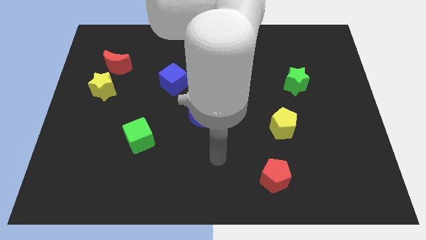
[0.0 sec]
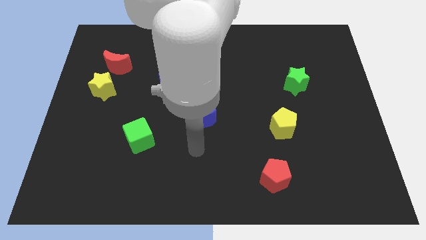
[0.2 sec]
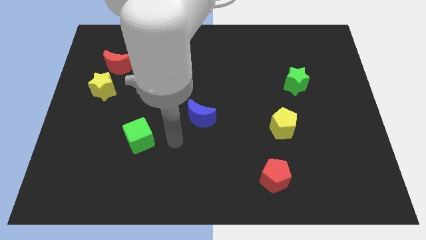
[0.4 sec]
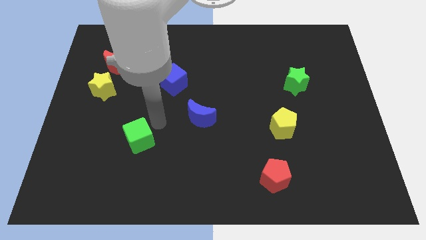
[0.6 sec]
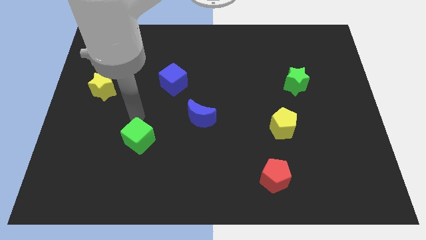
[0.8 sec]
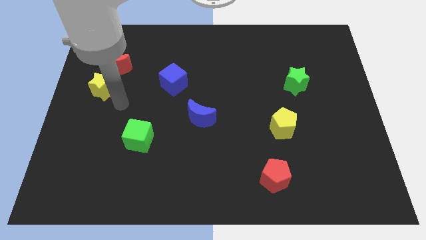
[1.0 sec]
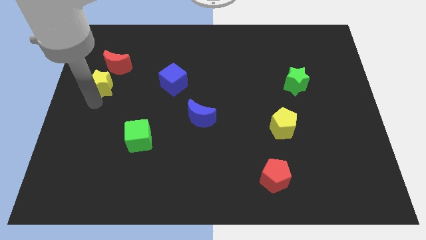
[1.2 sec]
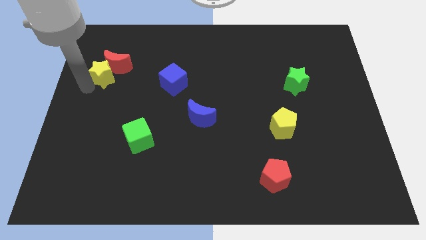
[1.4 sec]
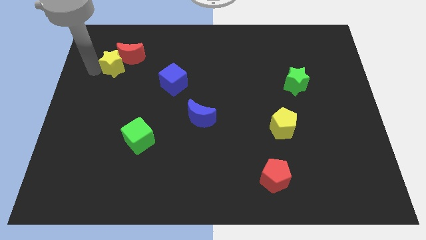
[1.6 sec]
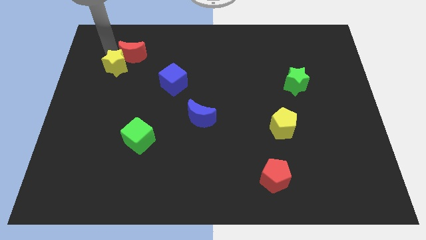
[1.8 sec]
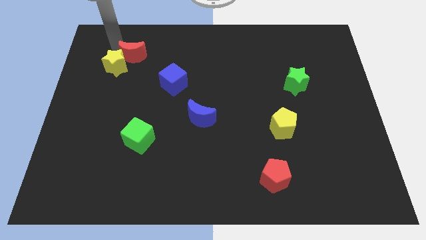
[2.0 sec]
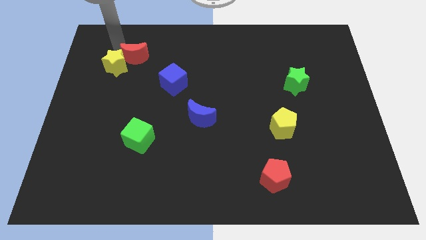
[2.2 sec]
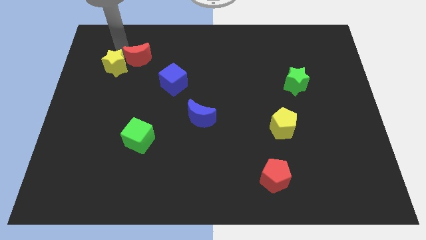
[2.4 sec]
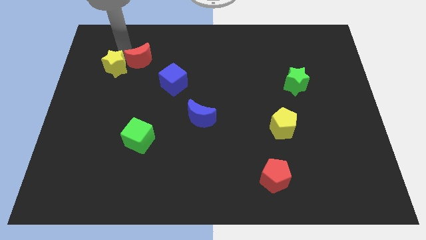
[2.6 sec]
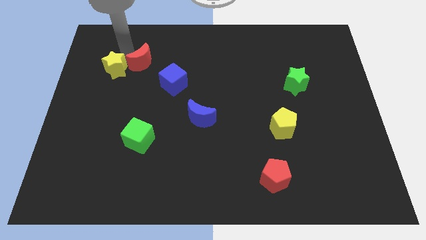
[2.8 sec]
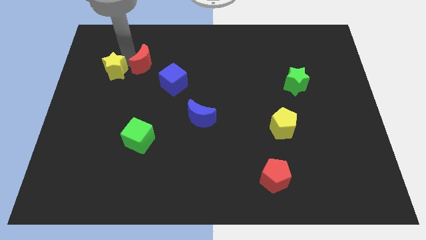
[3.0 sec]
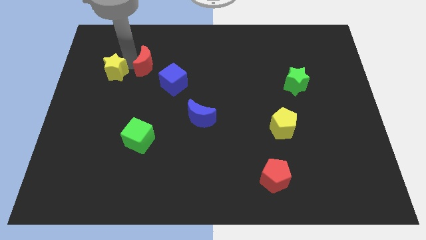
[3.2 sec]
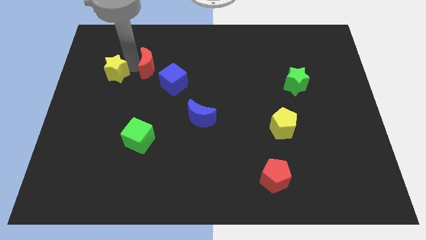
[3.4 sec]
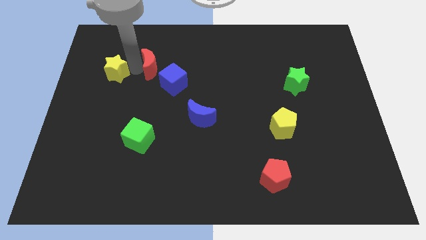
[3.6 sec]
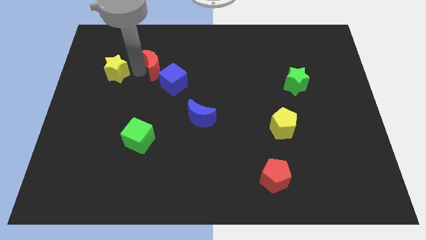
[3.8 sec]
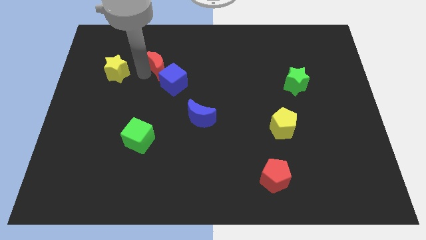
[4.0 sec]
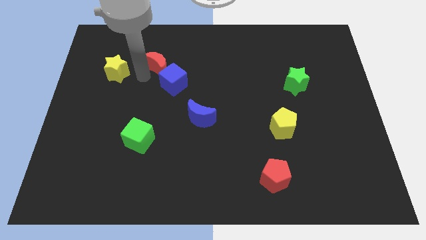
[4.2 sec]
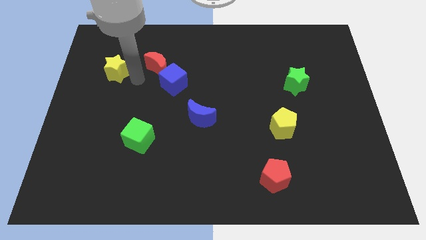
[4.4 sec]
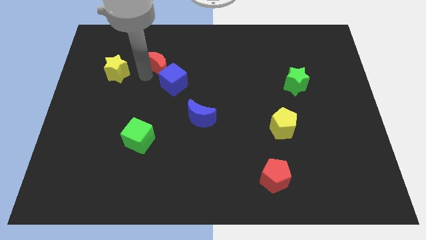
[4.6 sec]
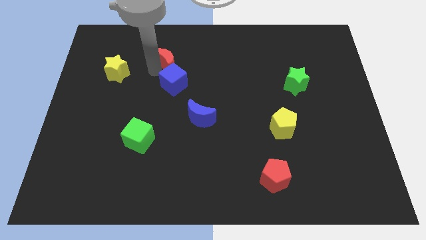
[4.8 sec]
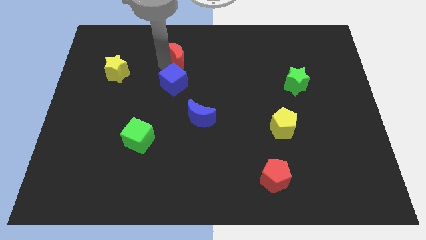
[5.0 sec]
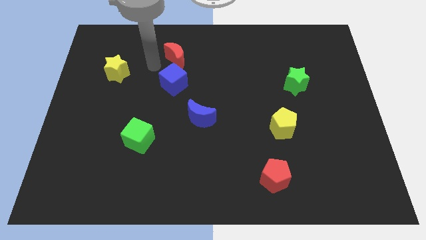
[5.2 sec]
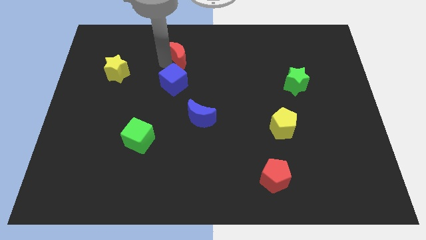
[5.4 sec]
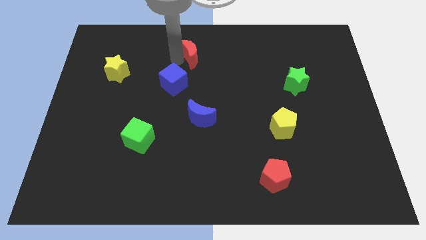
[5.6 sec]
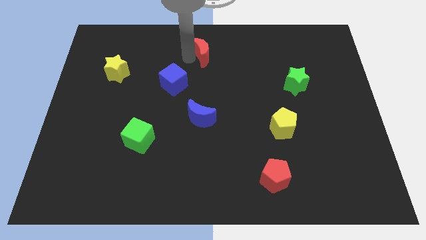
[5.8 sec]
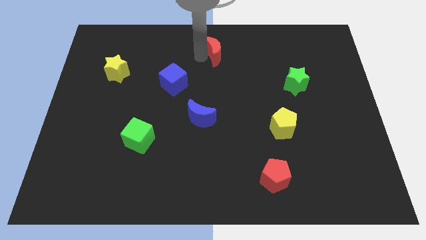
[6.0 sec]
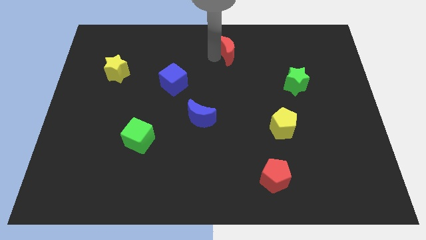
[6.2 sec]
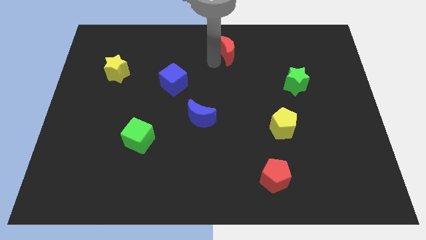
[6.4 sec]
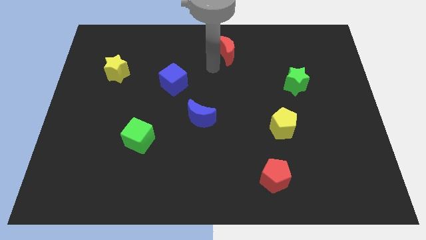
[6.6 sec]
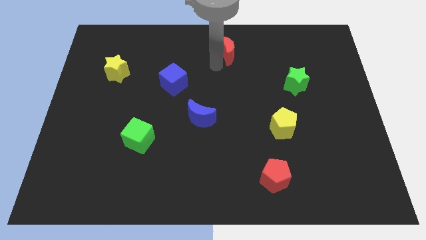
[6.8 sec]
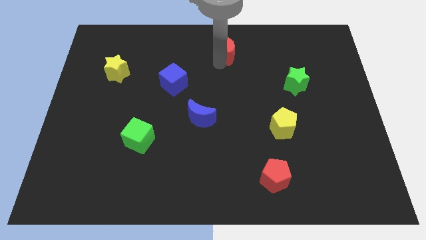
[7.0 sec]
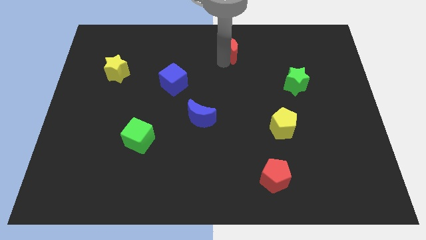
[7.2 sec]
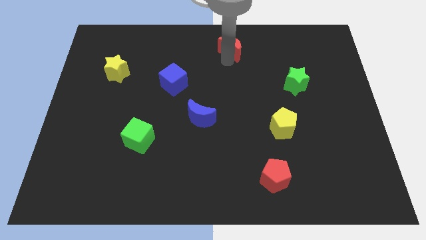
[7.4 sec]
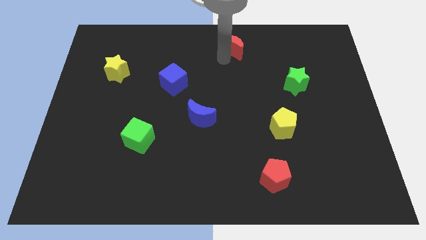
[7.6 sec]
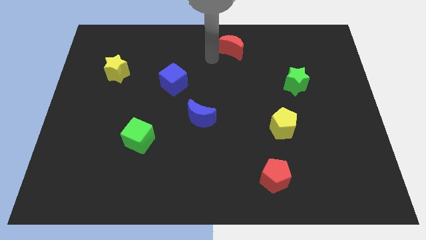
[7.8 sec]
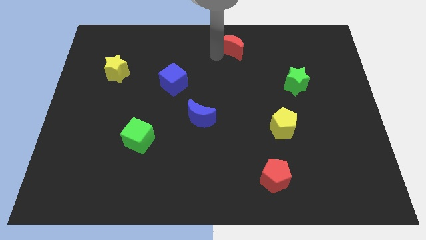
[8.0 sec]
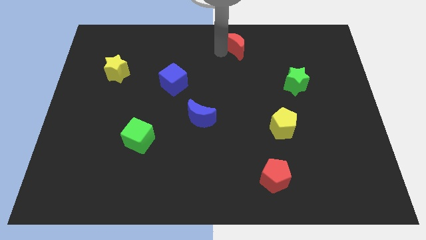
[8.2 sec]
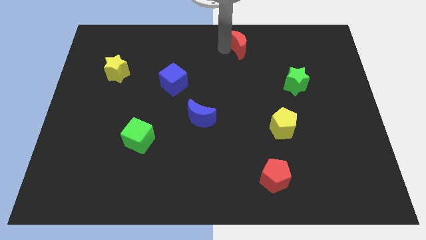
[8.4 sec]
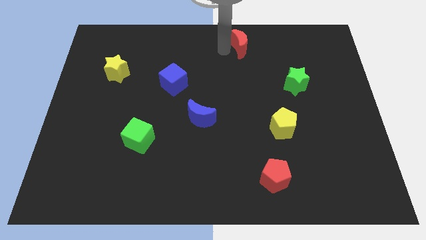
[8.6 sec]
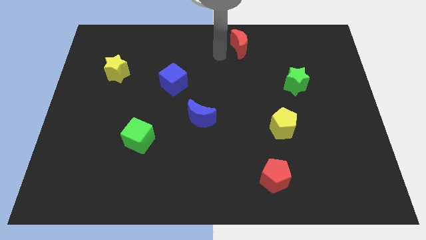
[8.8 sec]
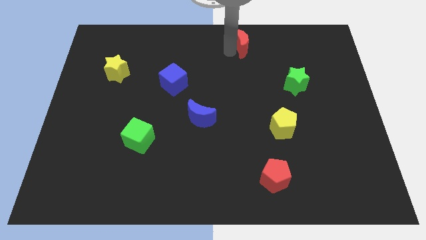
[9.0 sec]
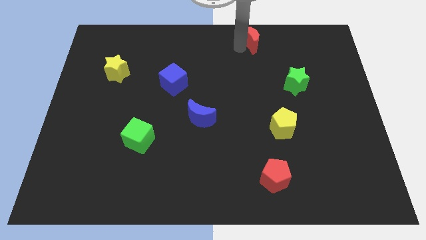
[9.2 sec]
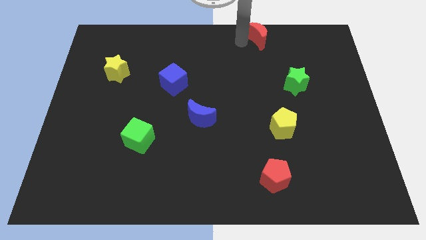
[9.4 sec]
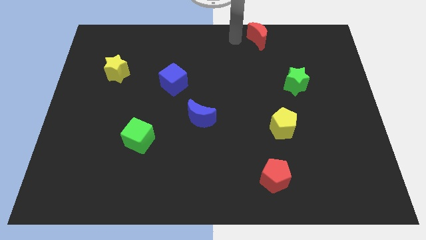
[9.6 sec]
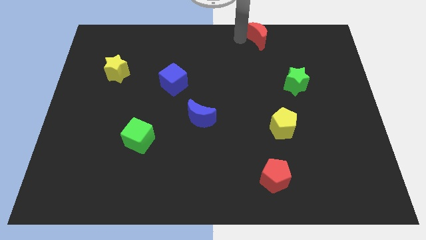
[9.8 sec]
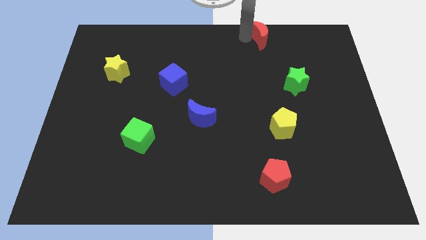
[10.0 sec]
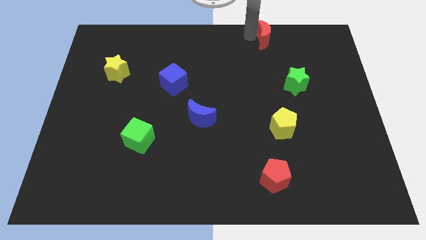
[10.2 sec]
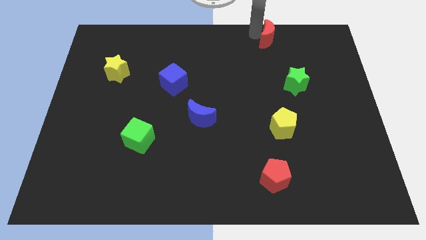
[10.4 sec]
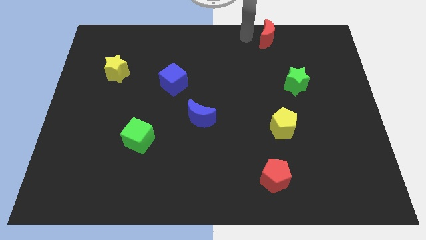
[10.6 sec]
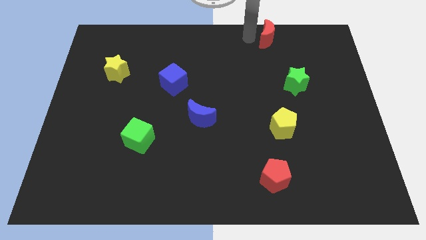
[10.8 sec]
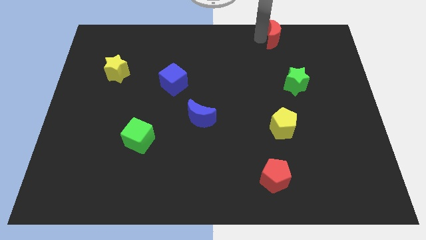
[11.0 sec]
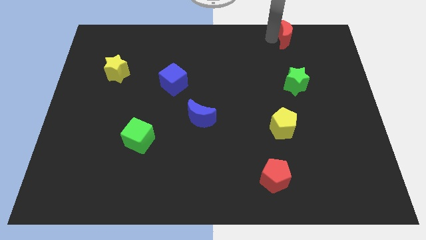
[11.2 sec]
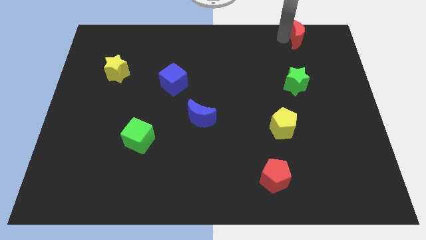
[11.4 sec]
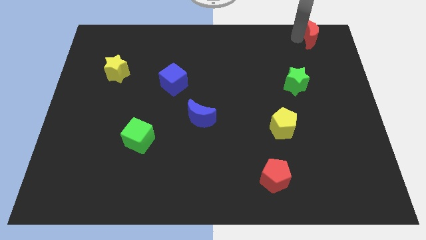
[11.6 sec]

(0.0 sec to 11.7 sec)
push the red moon to the upper right corner

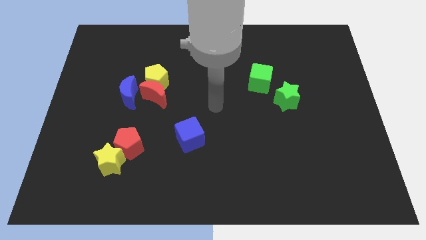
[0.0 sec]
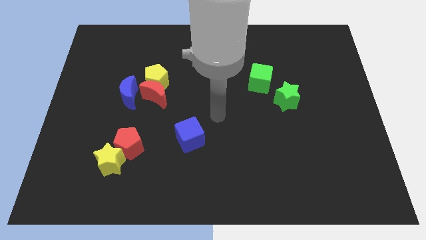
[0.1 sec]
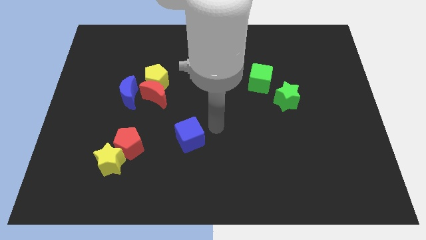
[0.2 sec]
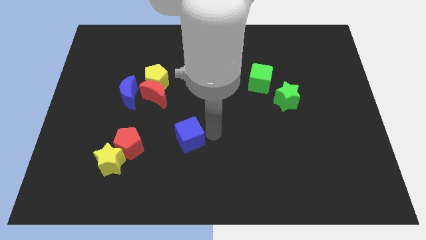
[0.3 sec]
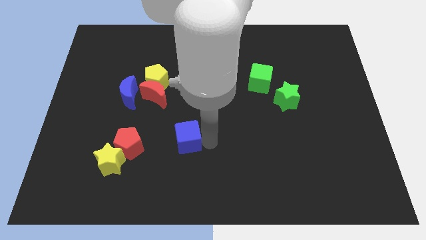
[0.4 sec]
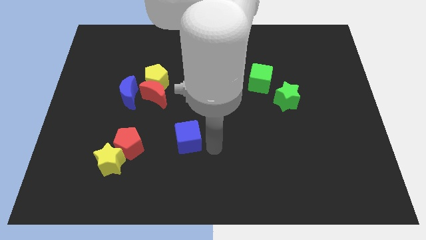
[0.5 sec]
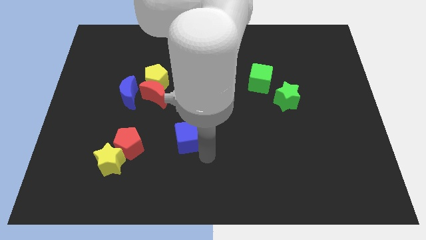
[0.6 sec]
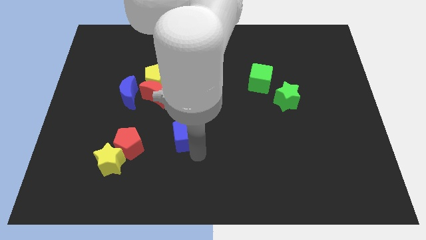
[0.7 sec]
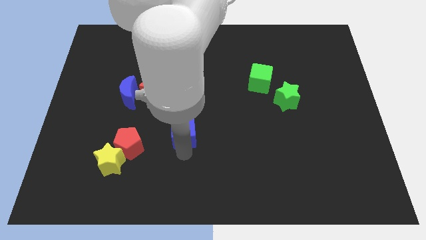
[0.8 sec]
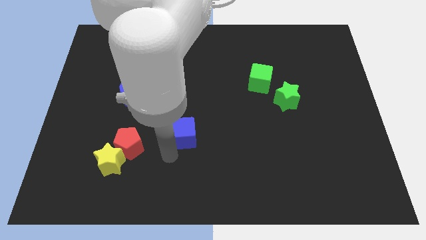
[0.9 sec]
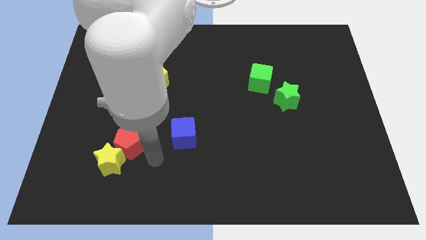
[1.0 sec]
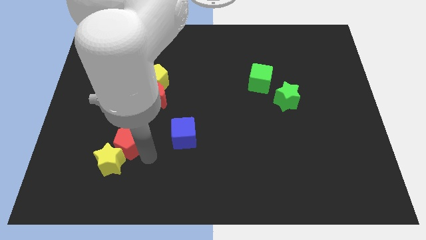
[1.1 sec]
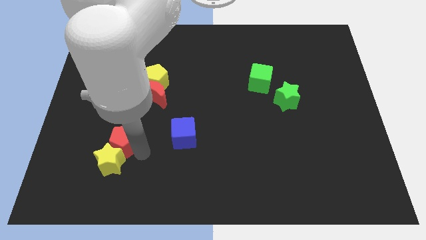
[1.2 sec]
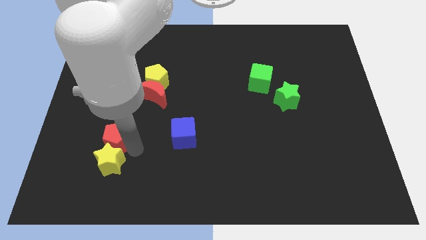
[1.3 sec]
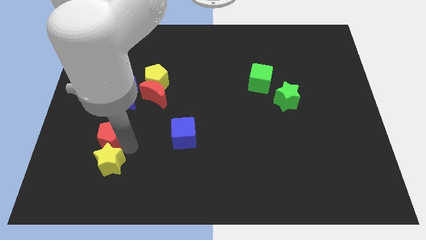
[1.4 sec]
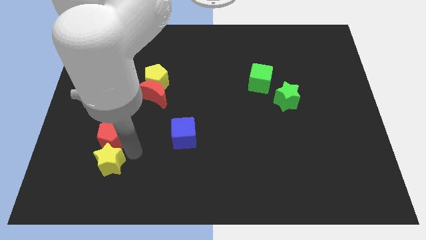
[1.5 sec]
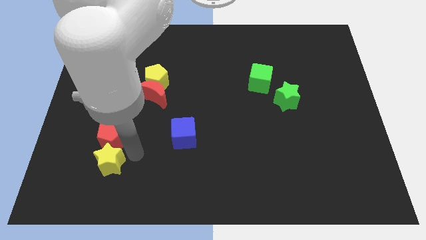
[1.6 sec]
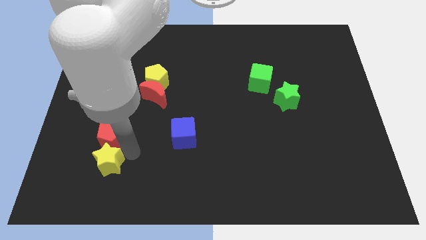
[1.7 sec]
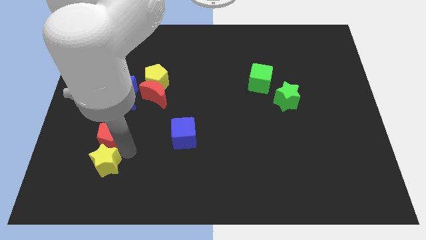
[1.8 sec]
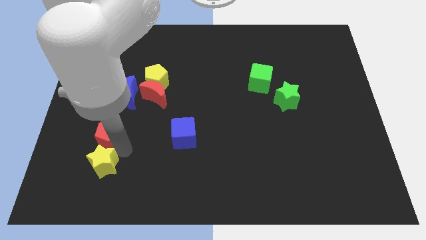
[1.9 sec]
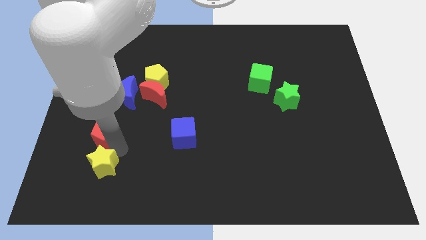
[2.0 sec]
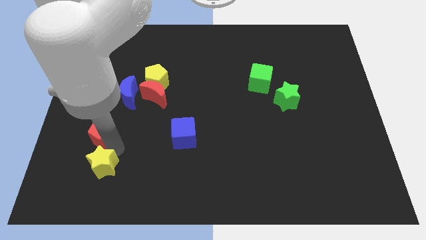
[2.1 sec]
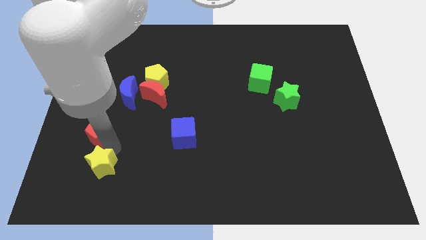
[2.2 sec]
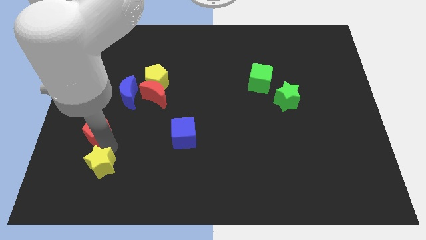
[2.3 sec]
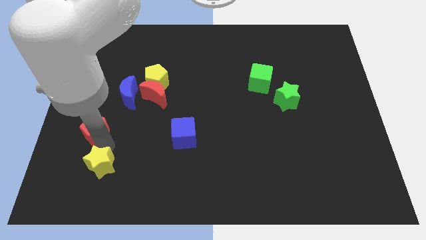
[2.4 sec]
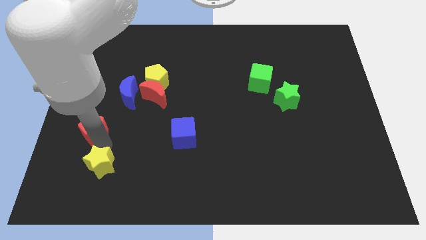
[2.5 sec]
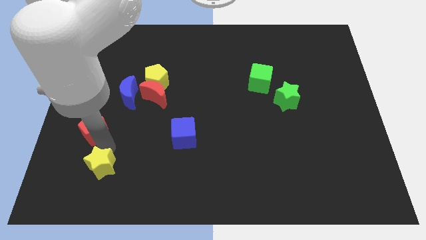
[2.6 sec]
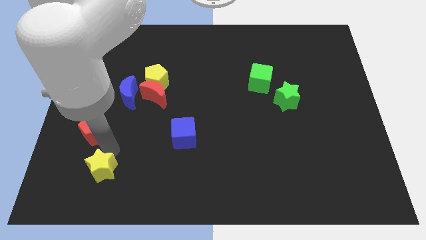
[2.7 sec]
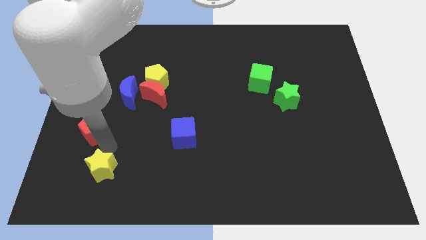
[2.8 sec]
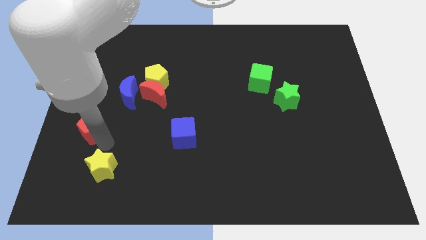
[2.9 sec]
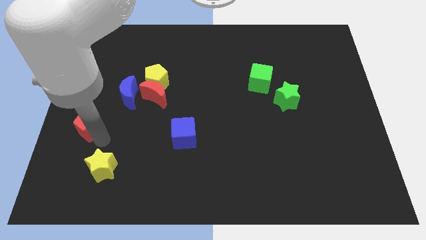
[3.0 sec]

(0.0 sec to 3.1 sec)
move the red pentagon to the left side
